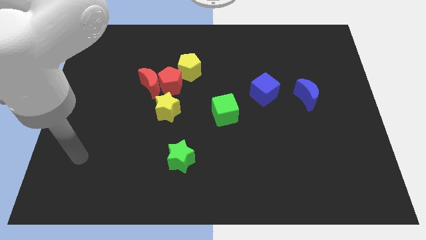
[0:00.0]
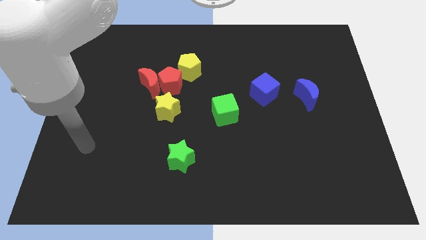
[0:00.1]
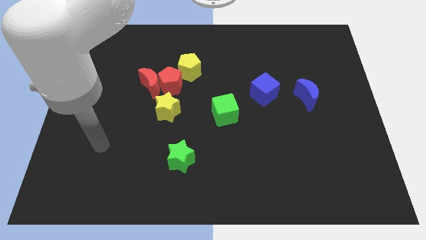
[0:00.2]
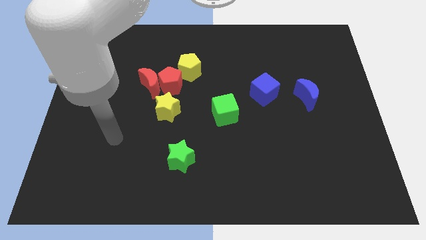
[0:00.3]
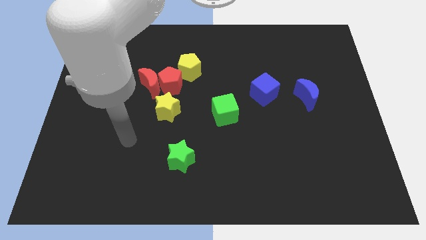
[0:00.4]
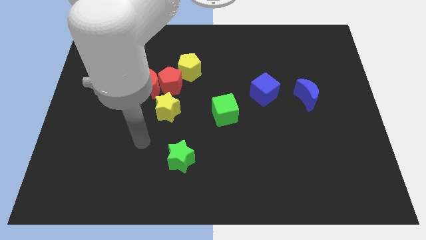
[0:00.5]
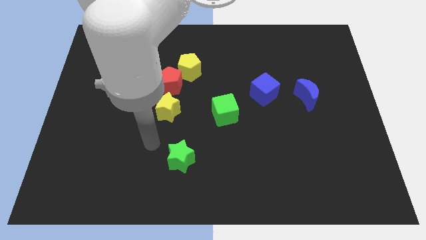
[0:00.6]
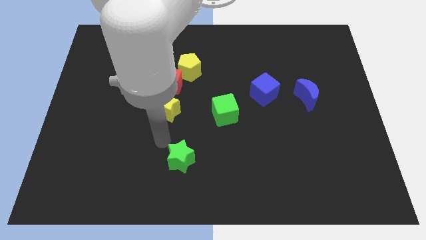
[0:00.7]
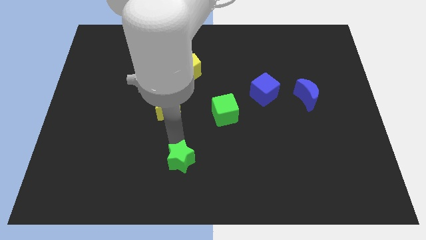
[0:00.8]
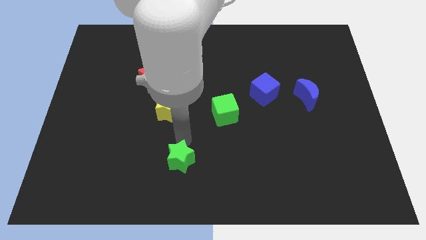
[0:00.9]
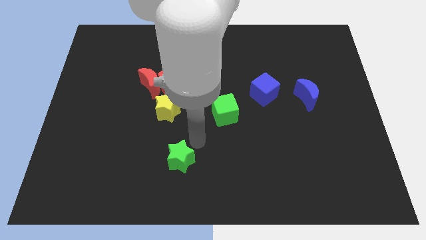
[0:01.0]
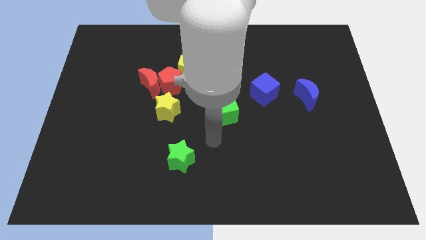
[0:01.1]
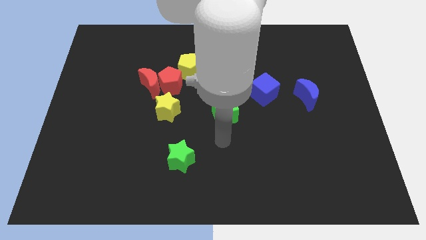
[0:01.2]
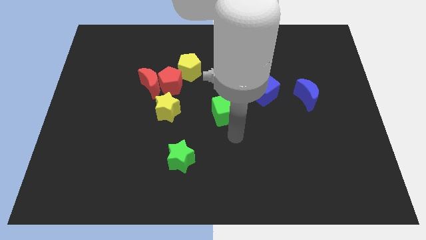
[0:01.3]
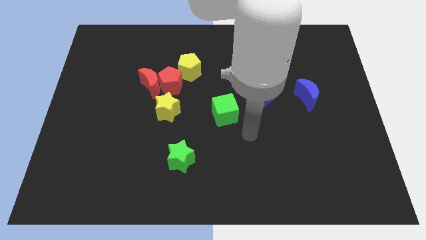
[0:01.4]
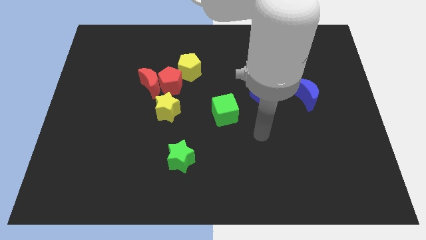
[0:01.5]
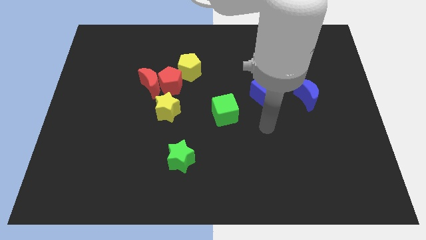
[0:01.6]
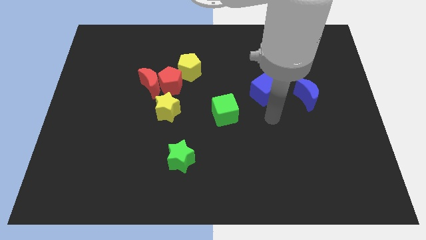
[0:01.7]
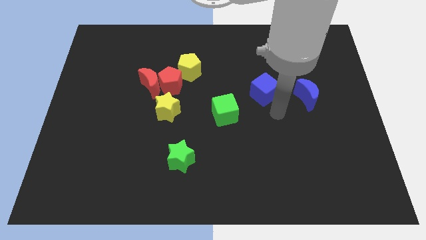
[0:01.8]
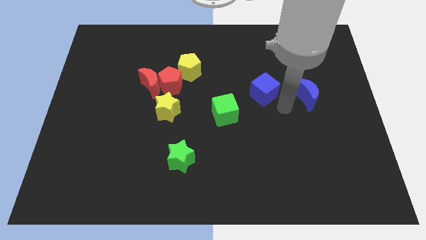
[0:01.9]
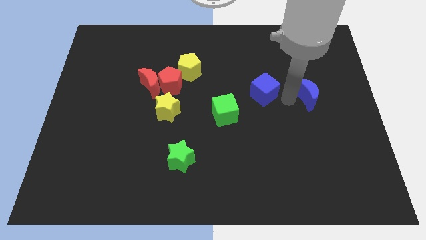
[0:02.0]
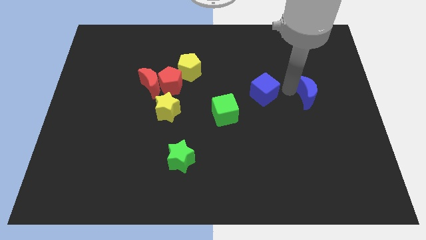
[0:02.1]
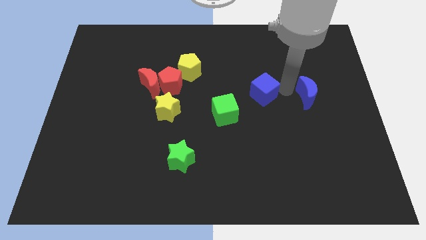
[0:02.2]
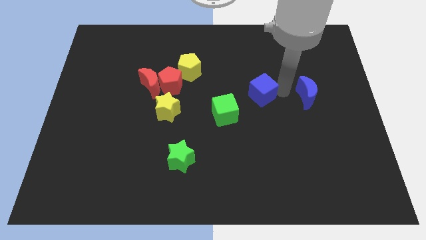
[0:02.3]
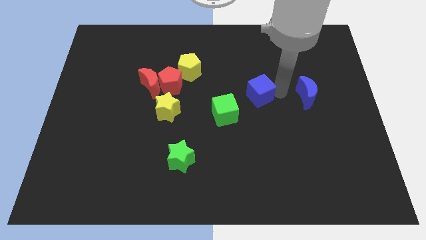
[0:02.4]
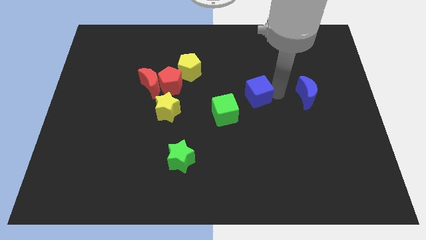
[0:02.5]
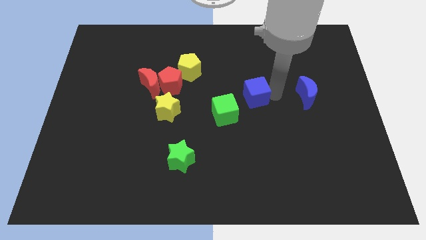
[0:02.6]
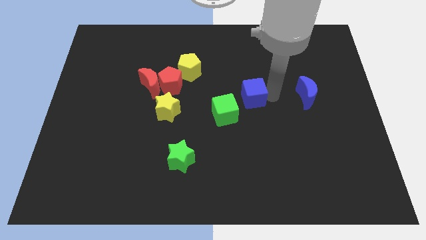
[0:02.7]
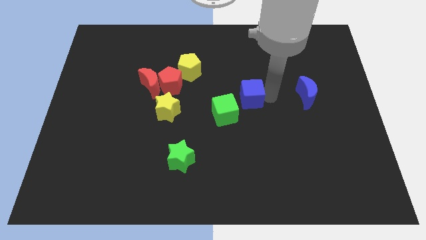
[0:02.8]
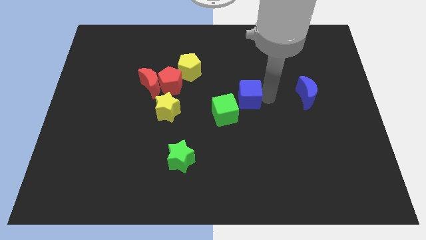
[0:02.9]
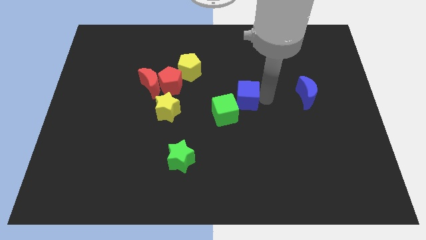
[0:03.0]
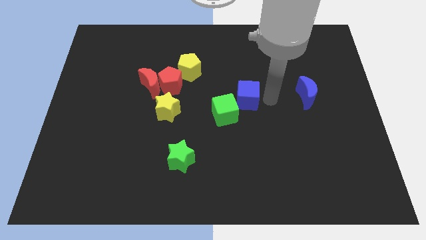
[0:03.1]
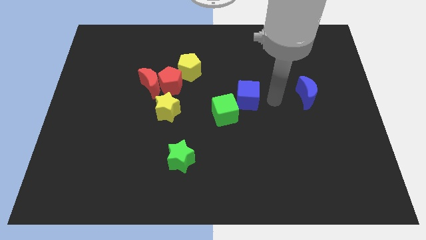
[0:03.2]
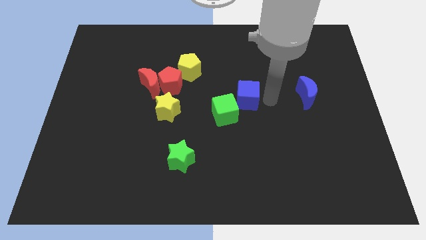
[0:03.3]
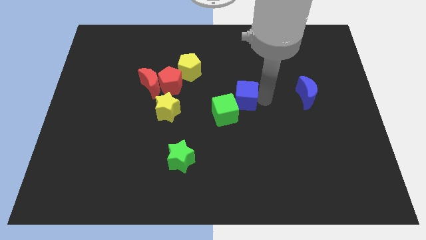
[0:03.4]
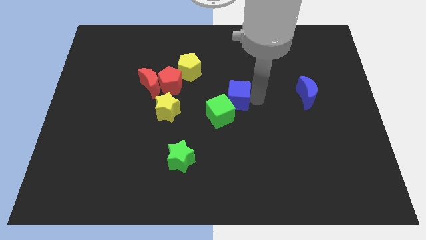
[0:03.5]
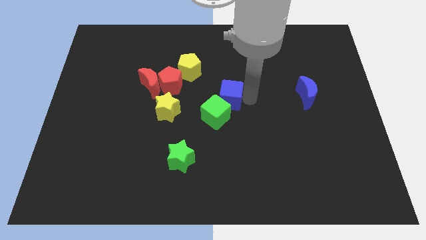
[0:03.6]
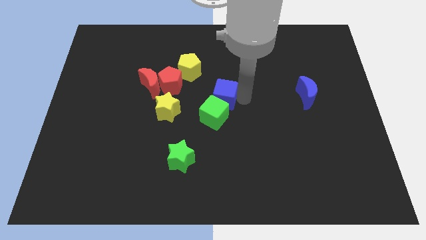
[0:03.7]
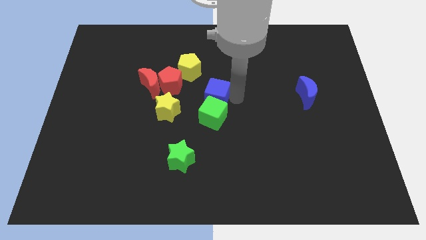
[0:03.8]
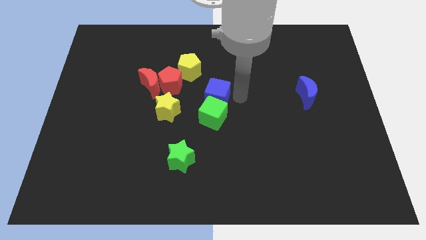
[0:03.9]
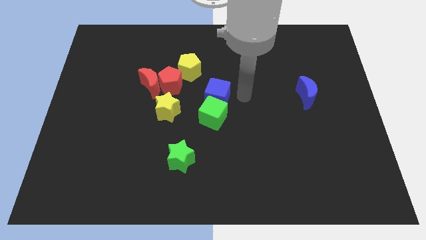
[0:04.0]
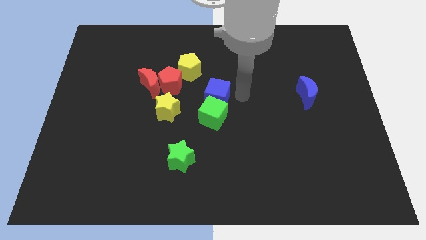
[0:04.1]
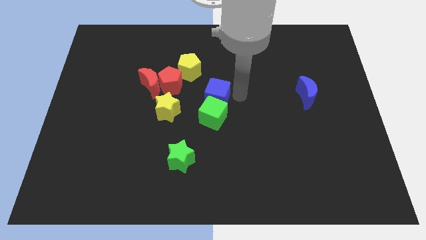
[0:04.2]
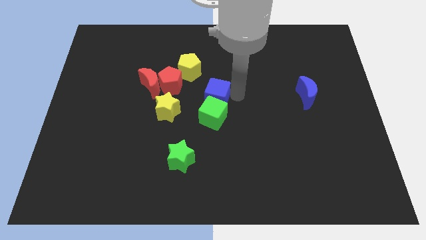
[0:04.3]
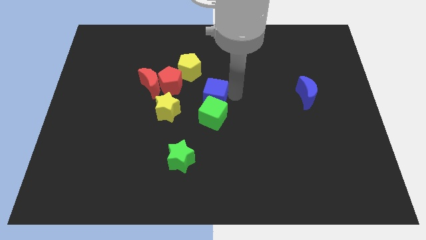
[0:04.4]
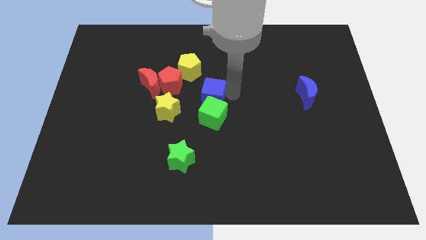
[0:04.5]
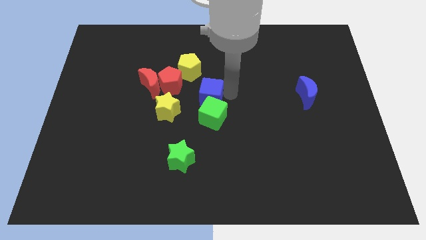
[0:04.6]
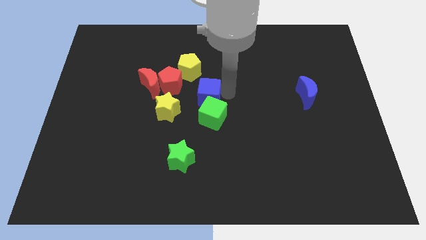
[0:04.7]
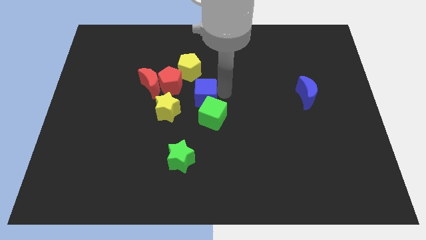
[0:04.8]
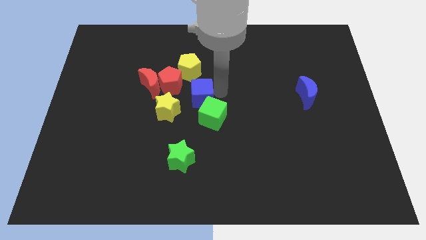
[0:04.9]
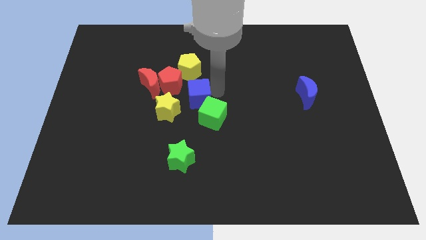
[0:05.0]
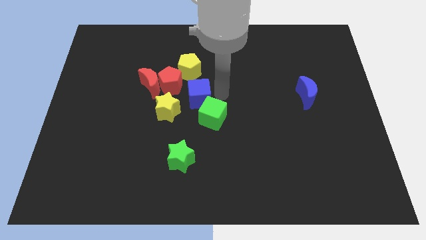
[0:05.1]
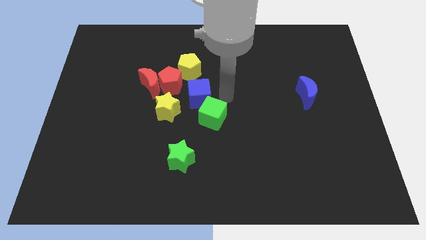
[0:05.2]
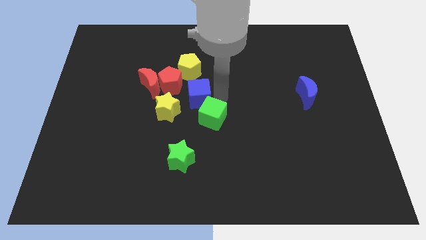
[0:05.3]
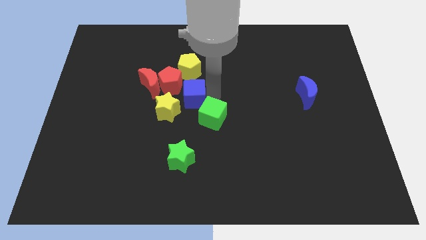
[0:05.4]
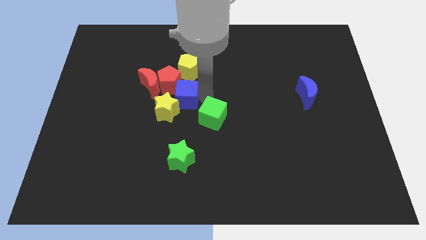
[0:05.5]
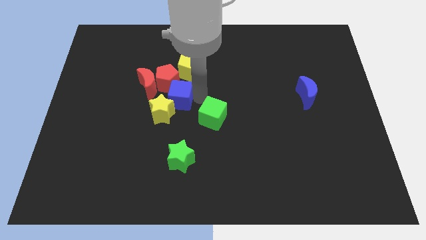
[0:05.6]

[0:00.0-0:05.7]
move the blue cube to the left

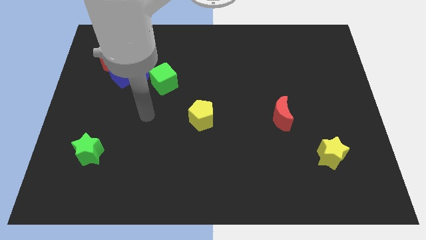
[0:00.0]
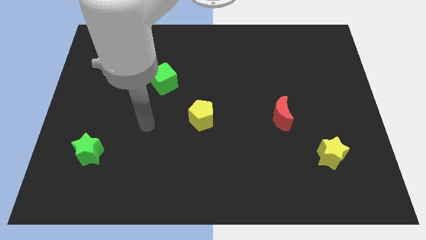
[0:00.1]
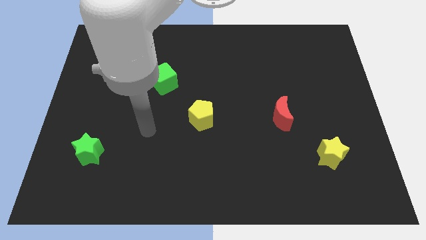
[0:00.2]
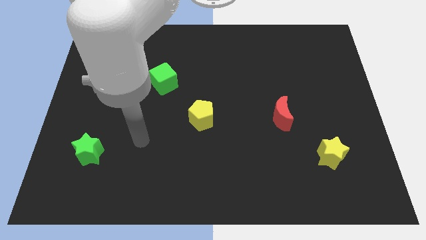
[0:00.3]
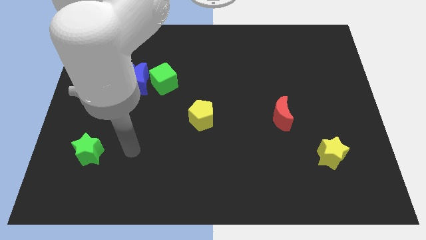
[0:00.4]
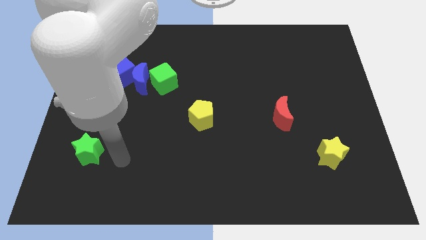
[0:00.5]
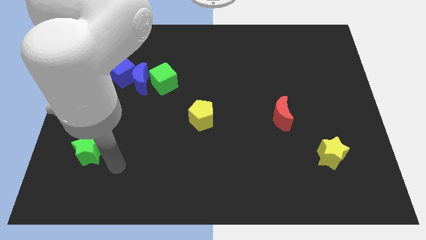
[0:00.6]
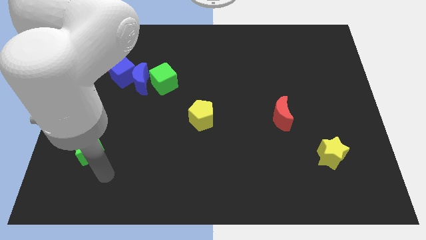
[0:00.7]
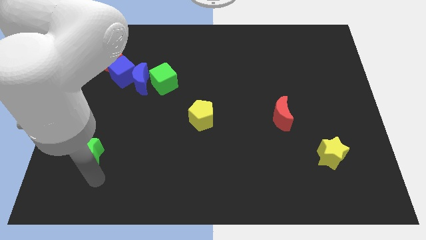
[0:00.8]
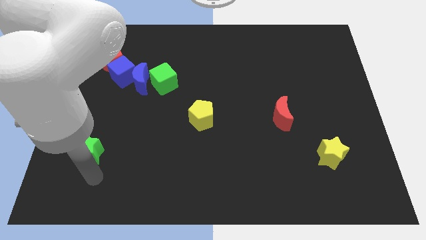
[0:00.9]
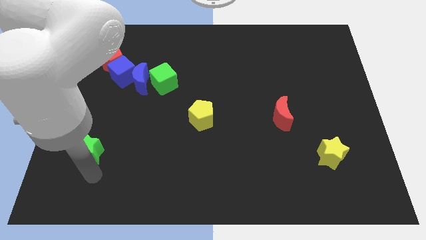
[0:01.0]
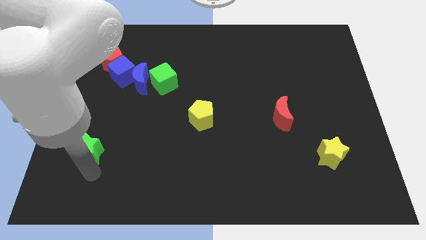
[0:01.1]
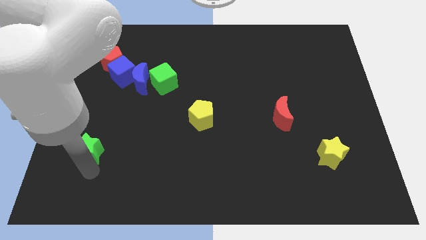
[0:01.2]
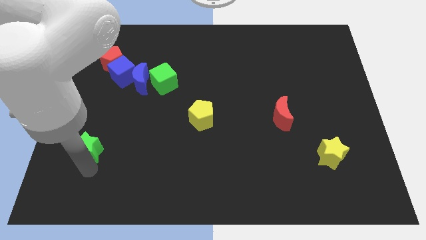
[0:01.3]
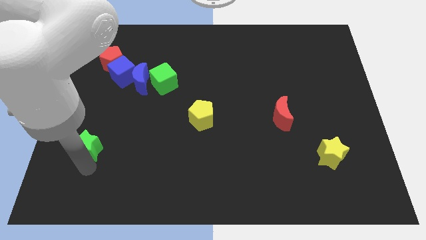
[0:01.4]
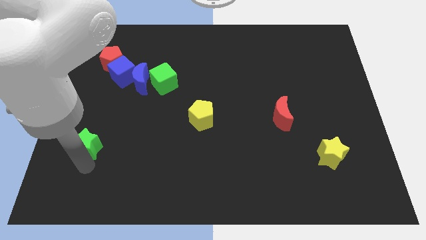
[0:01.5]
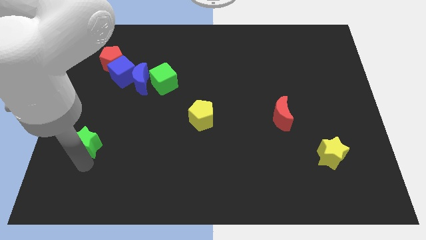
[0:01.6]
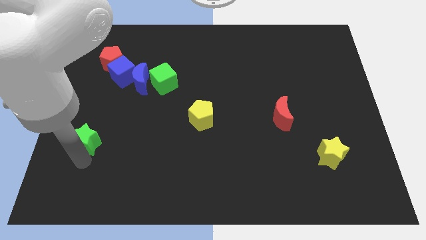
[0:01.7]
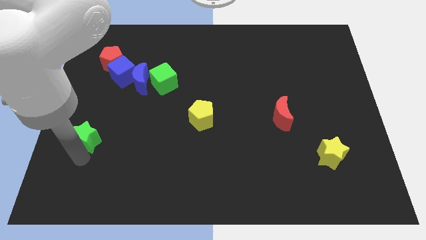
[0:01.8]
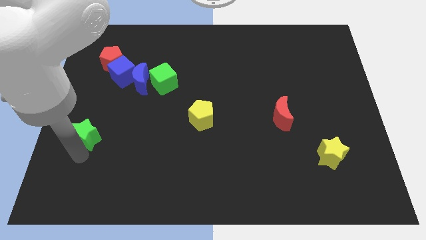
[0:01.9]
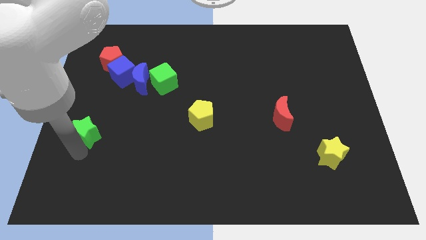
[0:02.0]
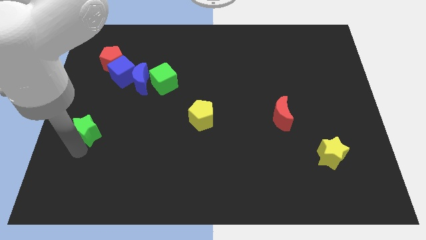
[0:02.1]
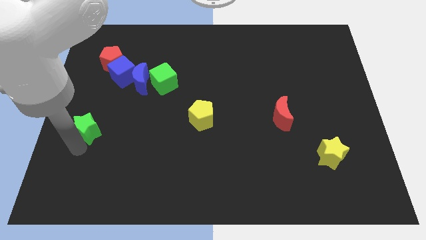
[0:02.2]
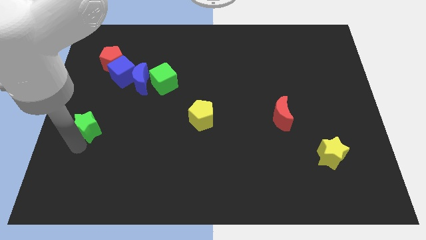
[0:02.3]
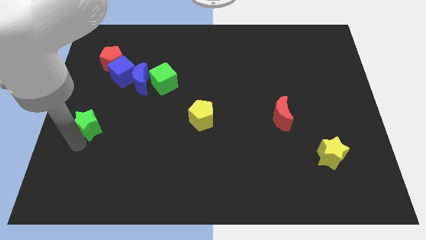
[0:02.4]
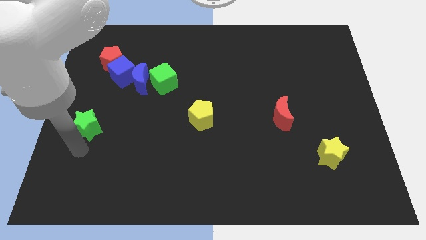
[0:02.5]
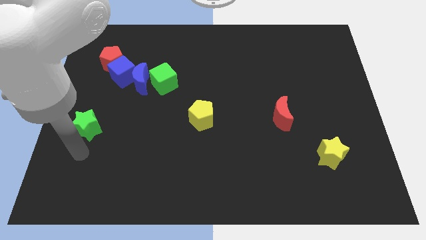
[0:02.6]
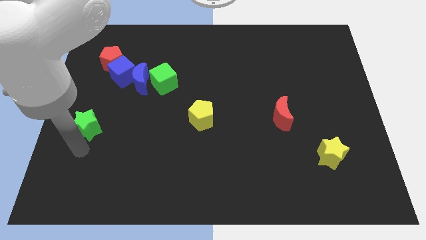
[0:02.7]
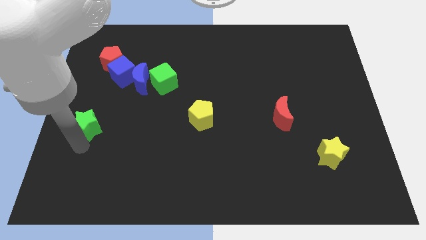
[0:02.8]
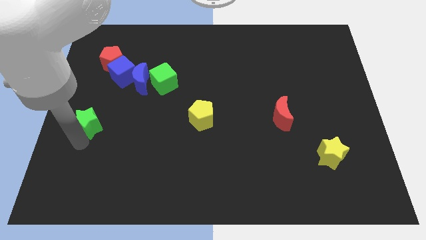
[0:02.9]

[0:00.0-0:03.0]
slightly push the green star up
